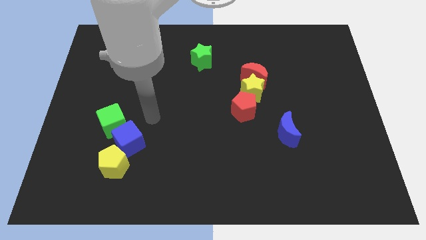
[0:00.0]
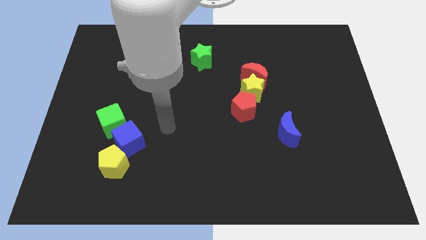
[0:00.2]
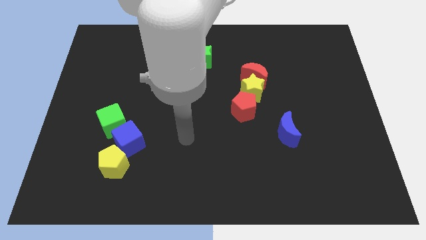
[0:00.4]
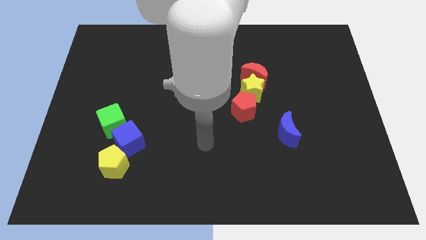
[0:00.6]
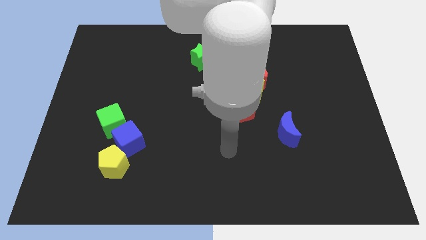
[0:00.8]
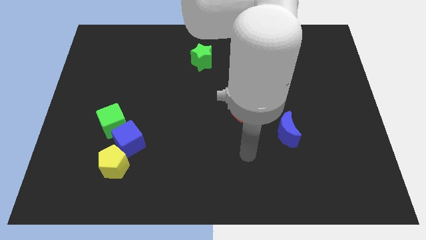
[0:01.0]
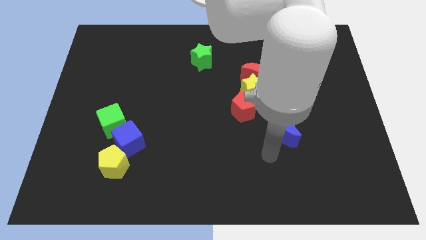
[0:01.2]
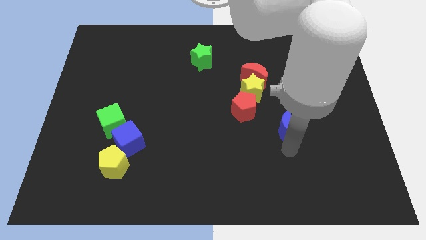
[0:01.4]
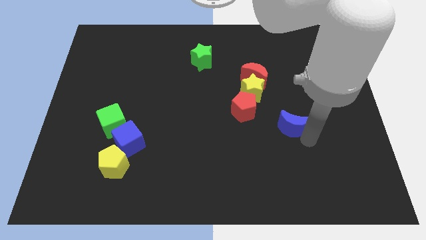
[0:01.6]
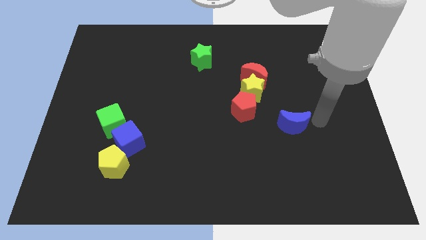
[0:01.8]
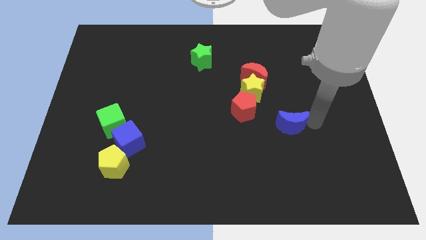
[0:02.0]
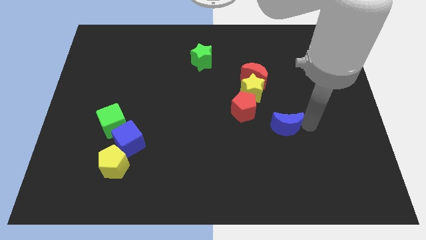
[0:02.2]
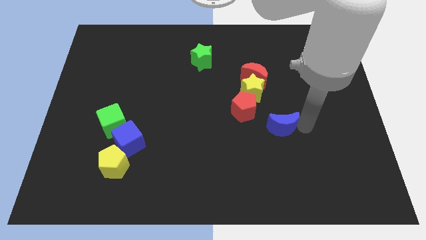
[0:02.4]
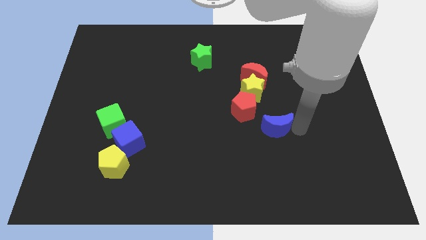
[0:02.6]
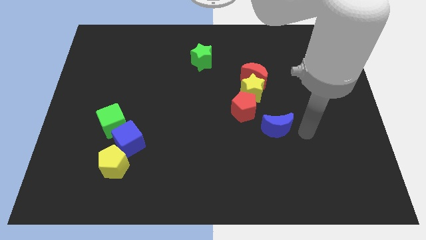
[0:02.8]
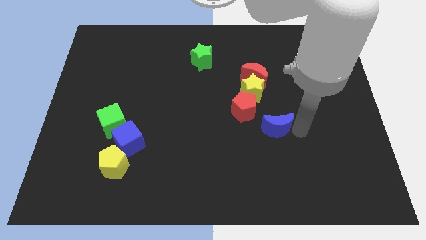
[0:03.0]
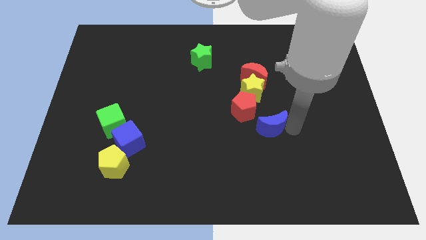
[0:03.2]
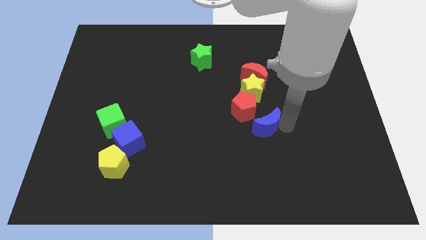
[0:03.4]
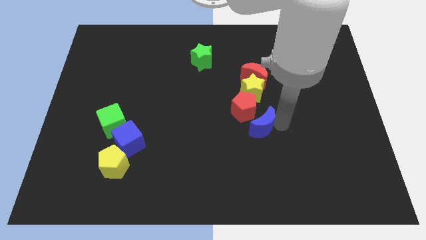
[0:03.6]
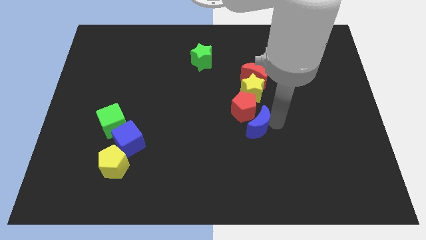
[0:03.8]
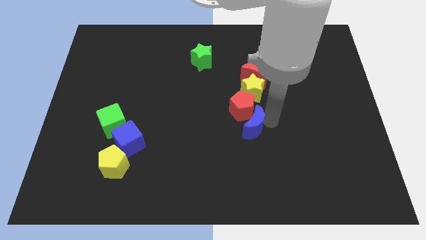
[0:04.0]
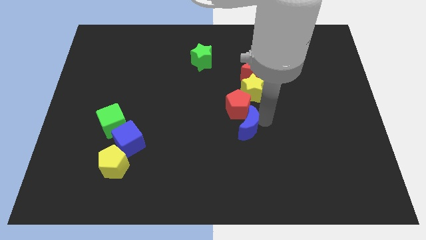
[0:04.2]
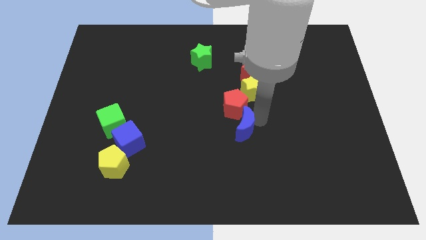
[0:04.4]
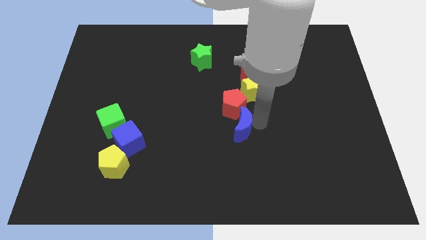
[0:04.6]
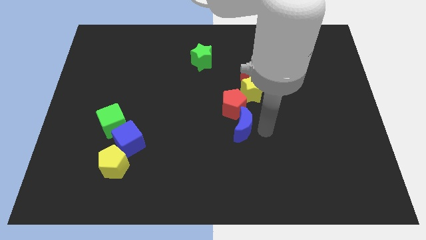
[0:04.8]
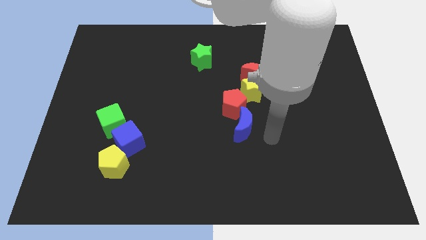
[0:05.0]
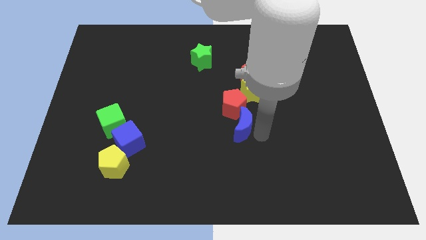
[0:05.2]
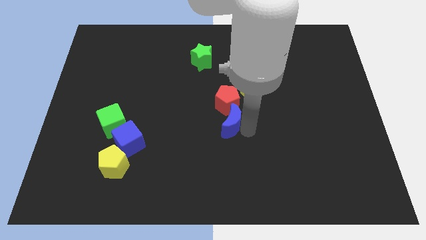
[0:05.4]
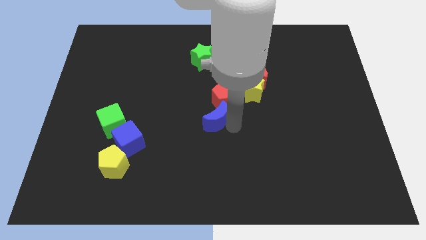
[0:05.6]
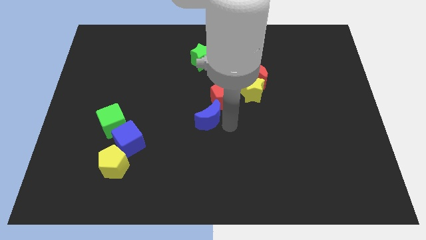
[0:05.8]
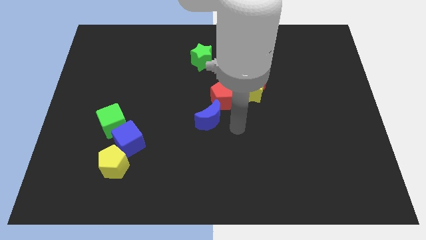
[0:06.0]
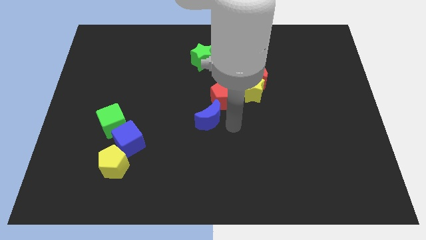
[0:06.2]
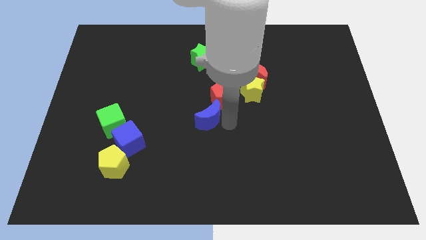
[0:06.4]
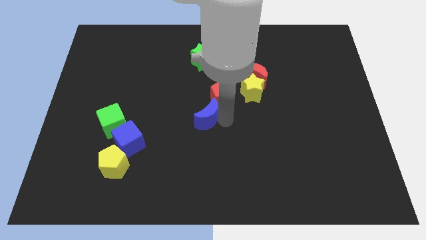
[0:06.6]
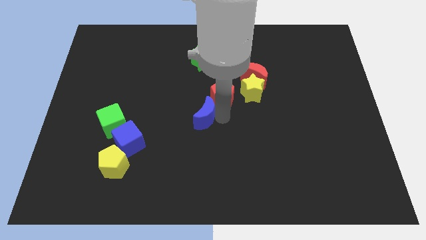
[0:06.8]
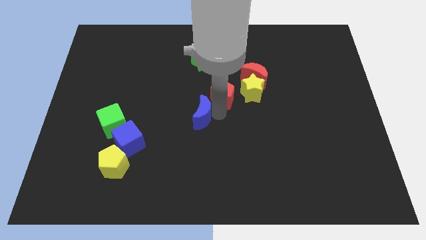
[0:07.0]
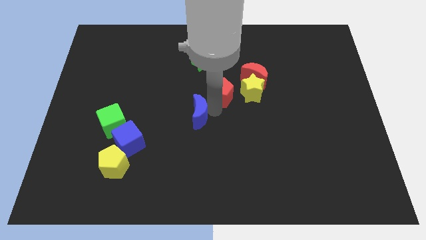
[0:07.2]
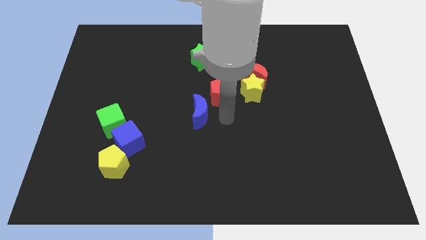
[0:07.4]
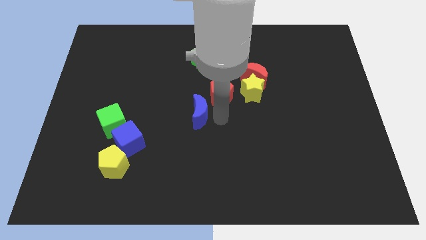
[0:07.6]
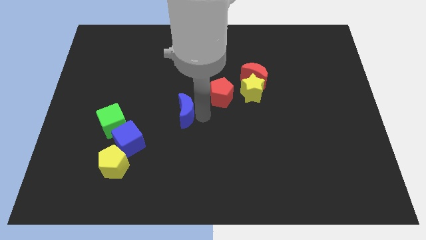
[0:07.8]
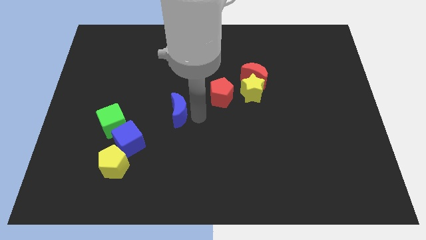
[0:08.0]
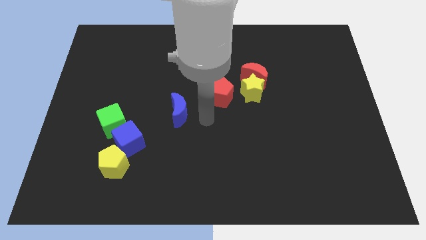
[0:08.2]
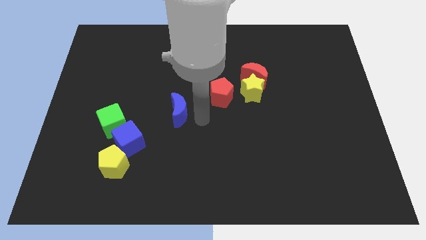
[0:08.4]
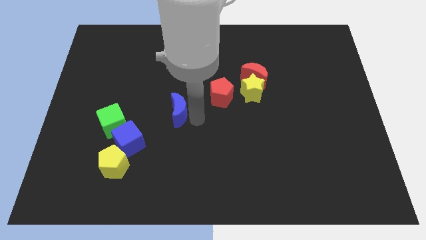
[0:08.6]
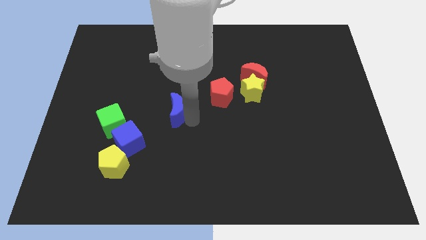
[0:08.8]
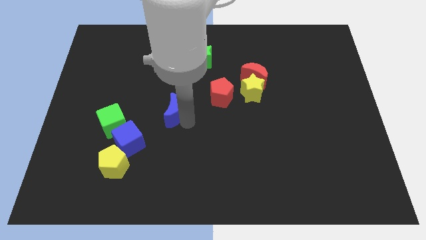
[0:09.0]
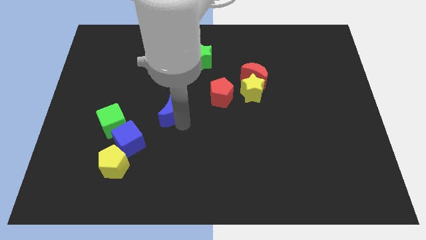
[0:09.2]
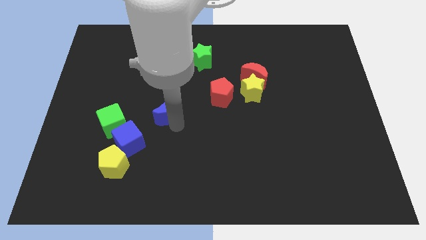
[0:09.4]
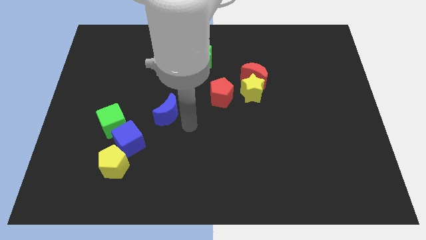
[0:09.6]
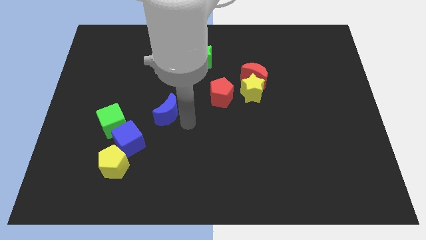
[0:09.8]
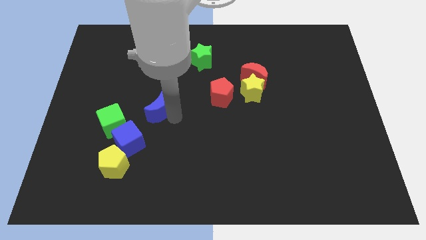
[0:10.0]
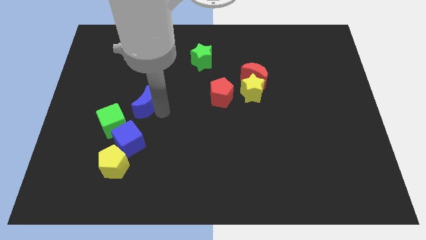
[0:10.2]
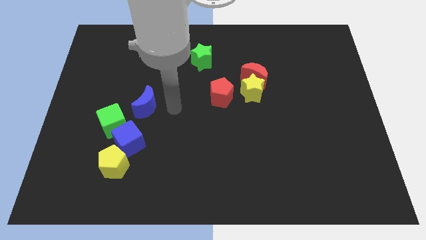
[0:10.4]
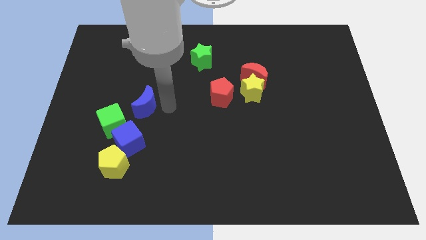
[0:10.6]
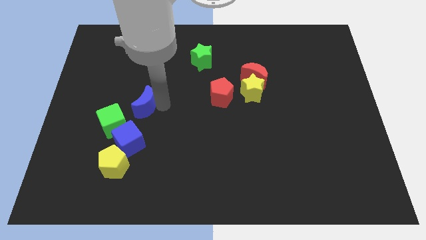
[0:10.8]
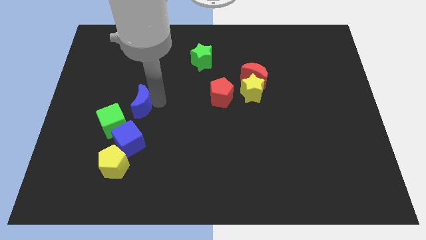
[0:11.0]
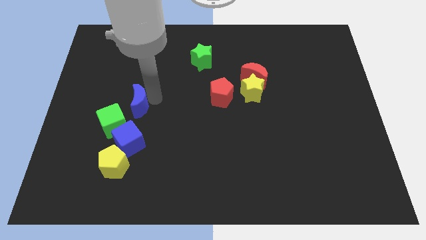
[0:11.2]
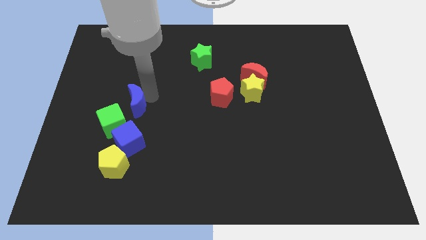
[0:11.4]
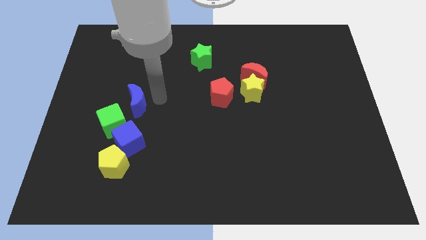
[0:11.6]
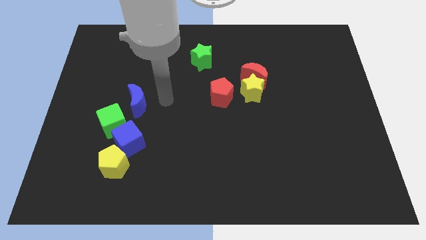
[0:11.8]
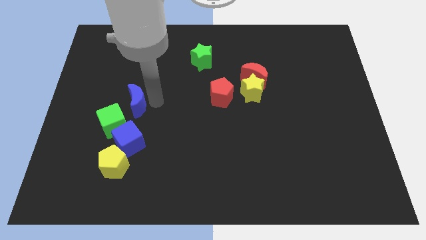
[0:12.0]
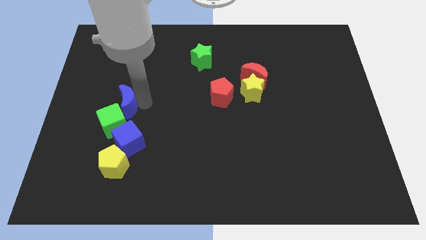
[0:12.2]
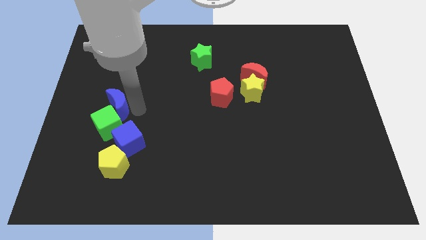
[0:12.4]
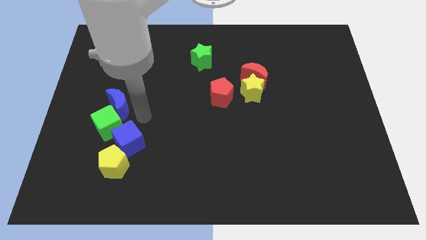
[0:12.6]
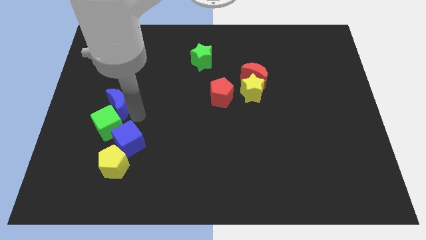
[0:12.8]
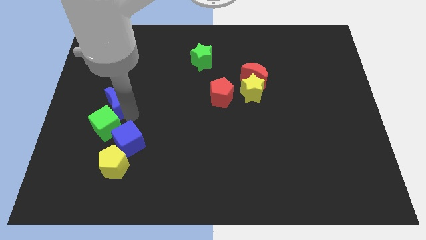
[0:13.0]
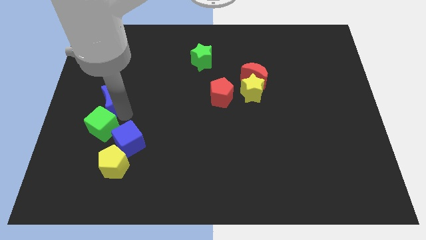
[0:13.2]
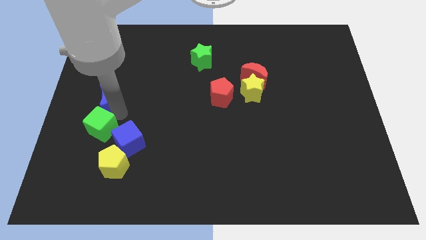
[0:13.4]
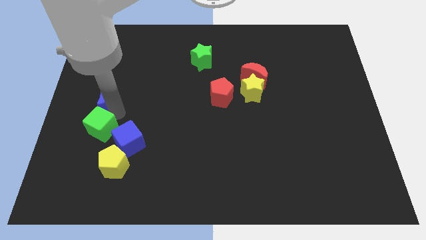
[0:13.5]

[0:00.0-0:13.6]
slide the blue moon to the left side
